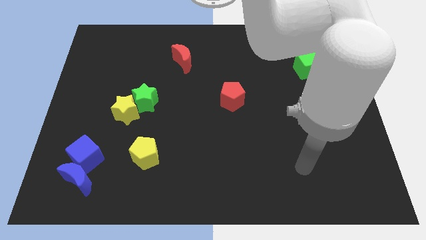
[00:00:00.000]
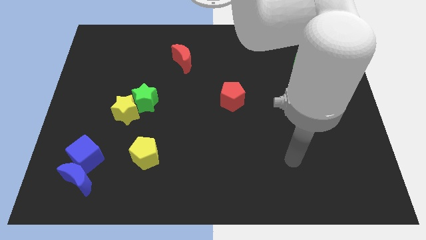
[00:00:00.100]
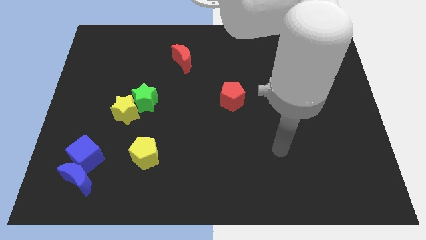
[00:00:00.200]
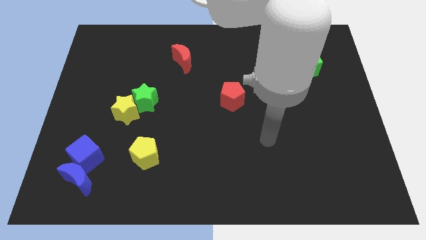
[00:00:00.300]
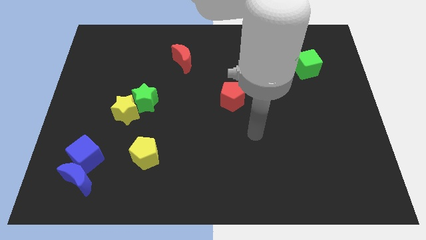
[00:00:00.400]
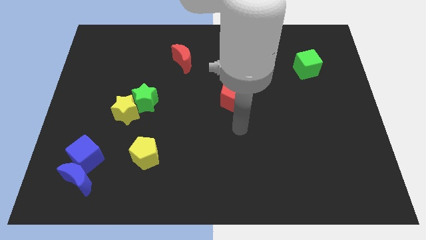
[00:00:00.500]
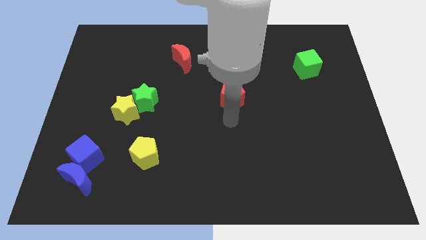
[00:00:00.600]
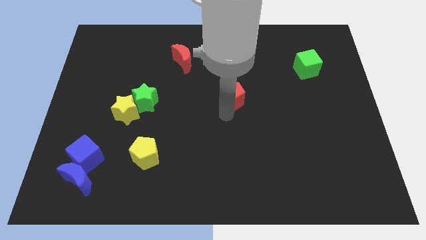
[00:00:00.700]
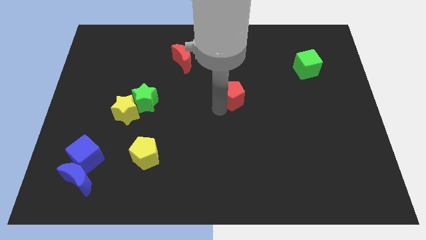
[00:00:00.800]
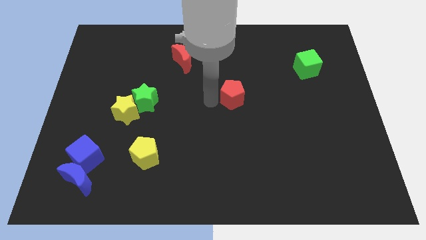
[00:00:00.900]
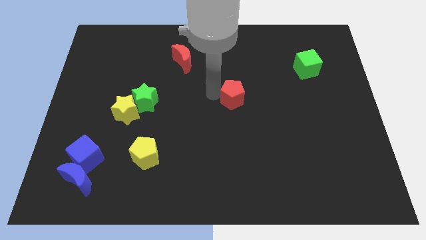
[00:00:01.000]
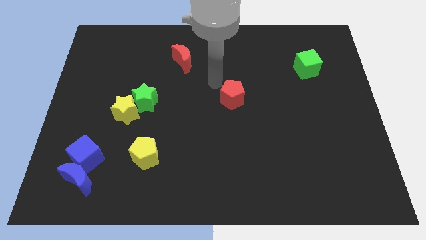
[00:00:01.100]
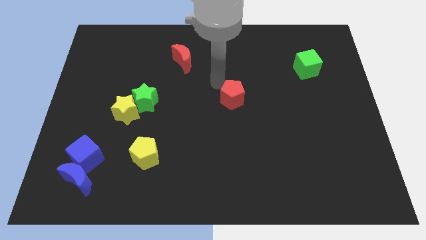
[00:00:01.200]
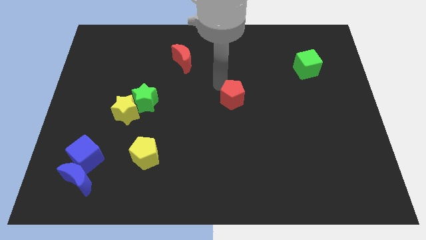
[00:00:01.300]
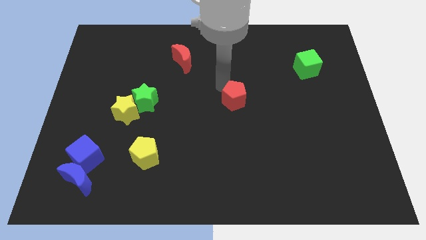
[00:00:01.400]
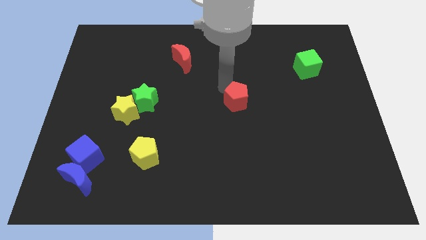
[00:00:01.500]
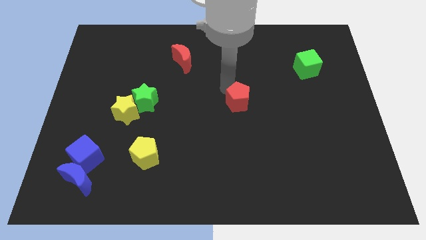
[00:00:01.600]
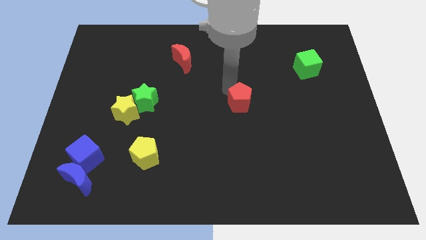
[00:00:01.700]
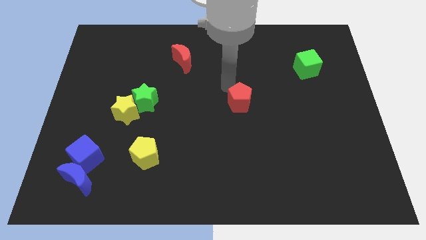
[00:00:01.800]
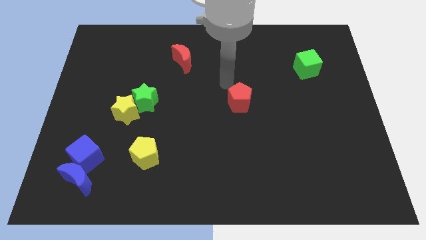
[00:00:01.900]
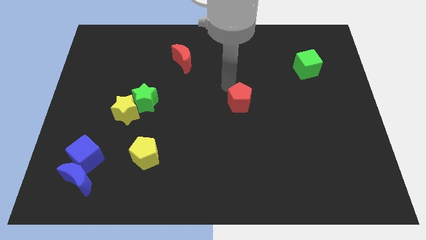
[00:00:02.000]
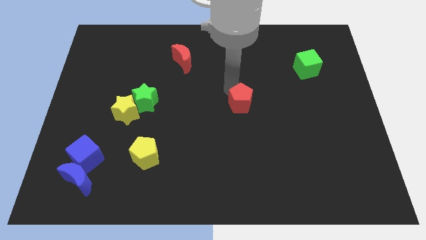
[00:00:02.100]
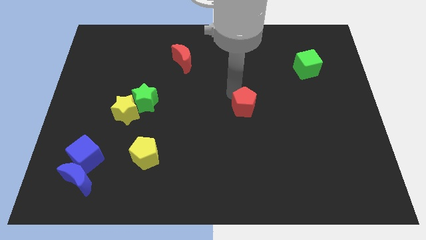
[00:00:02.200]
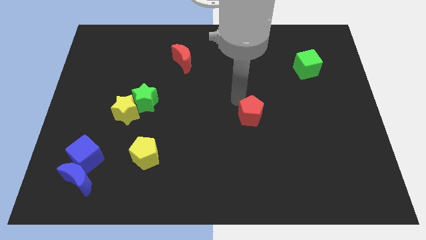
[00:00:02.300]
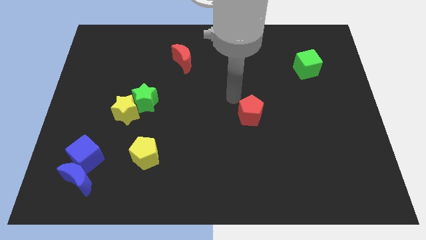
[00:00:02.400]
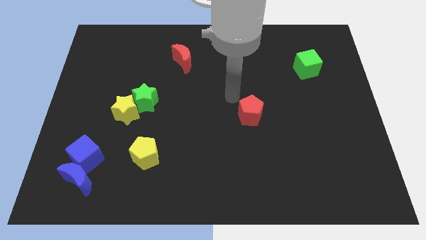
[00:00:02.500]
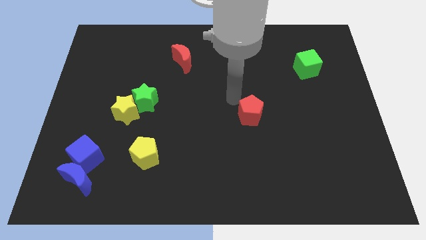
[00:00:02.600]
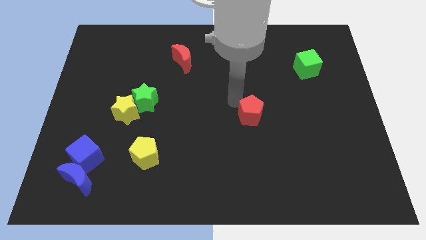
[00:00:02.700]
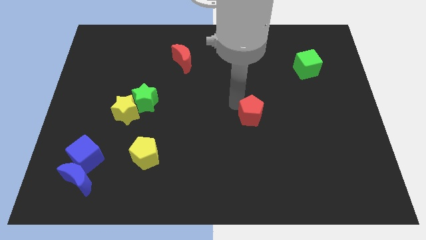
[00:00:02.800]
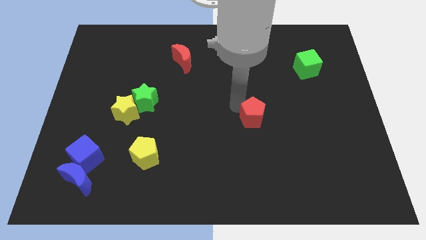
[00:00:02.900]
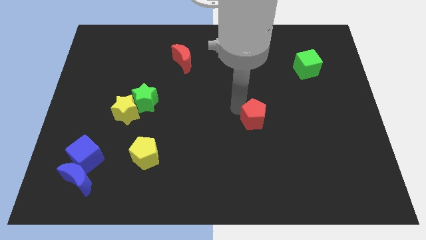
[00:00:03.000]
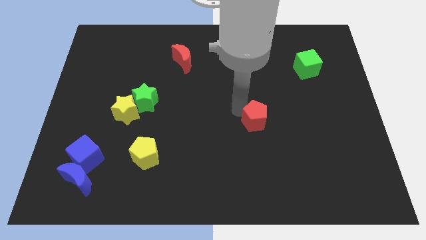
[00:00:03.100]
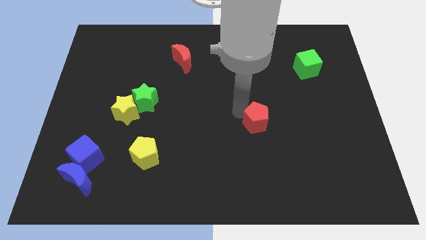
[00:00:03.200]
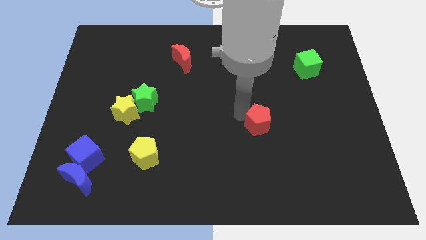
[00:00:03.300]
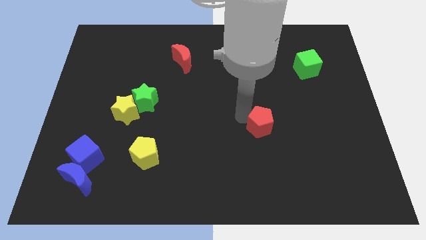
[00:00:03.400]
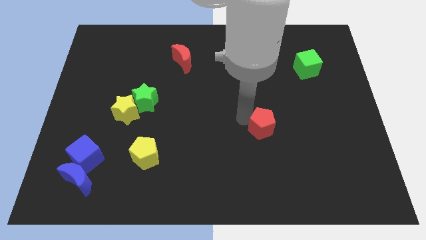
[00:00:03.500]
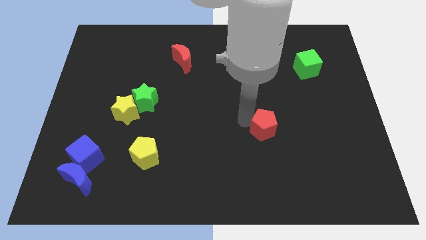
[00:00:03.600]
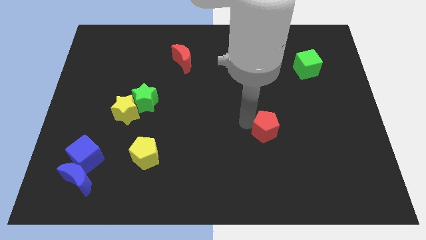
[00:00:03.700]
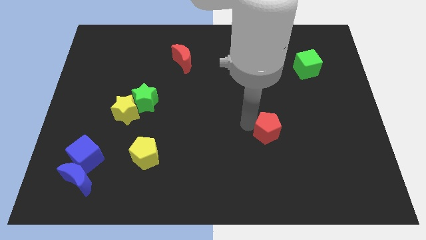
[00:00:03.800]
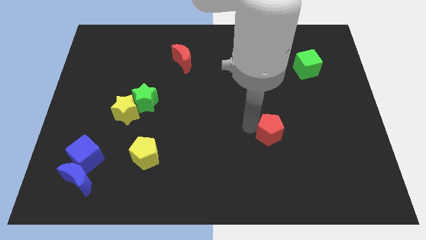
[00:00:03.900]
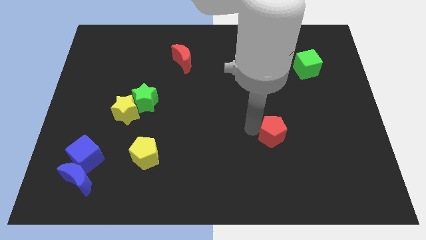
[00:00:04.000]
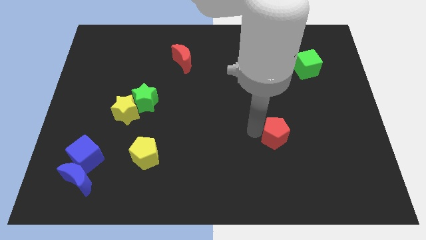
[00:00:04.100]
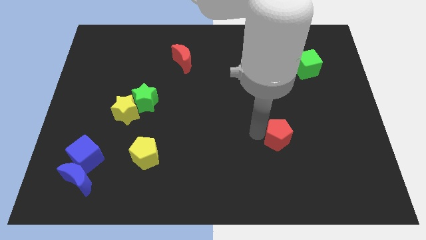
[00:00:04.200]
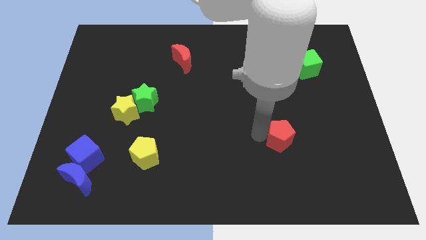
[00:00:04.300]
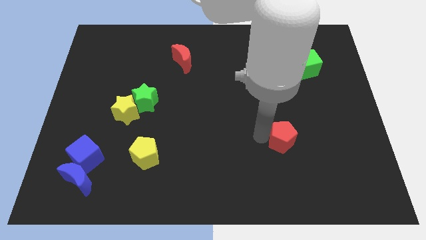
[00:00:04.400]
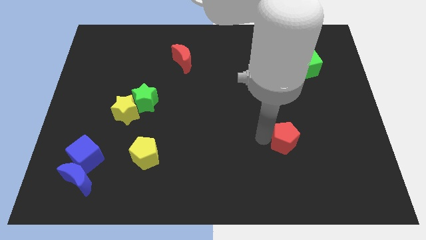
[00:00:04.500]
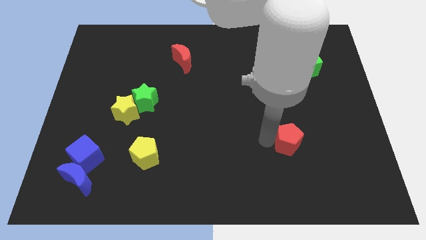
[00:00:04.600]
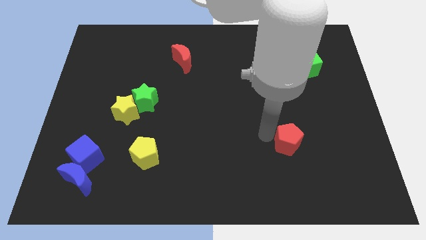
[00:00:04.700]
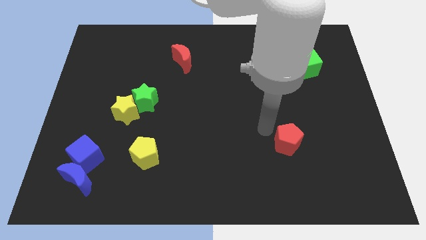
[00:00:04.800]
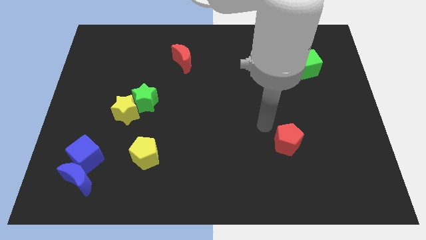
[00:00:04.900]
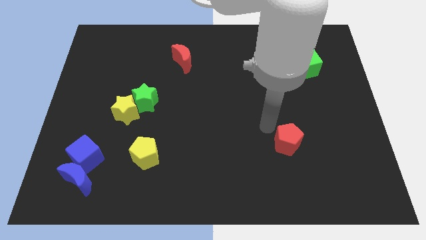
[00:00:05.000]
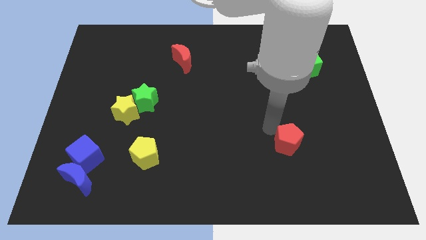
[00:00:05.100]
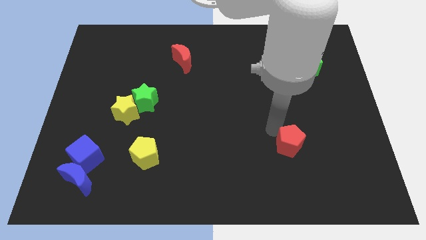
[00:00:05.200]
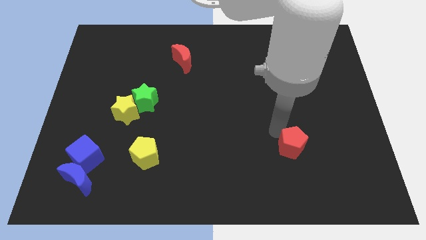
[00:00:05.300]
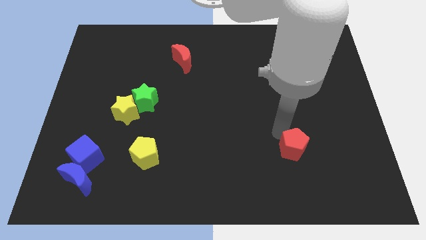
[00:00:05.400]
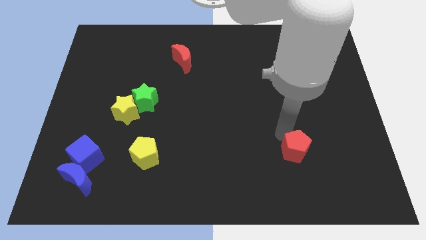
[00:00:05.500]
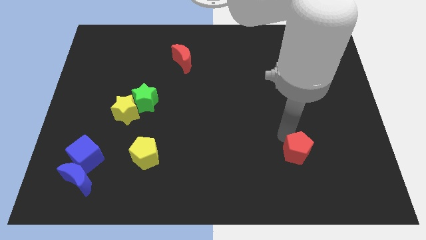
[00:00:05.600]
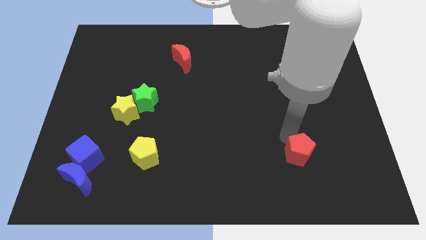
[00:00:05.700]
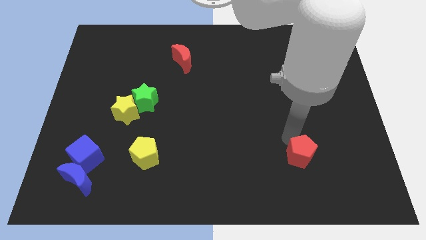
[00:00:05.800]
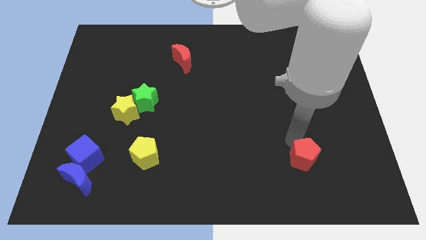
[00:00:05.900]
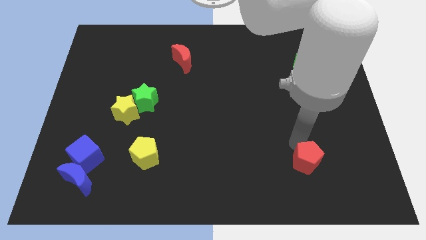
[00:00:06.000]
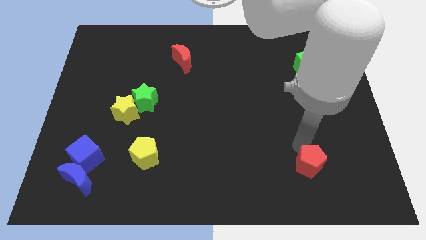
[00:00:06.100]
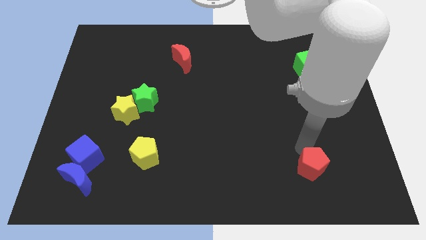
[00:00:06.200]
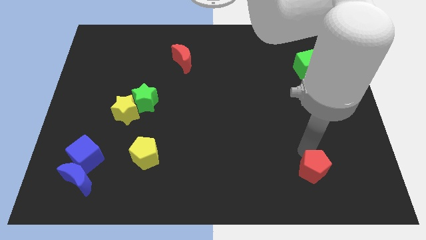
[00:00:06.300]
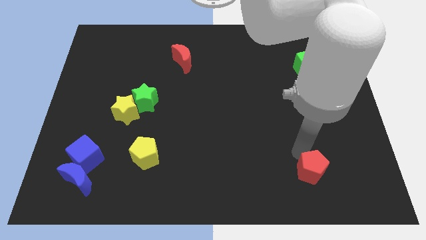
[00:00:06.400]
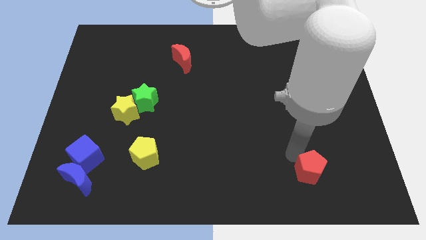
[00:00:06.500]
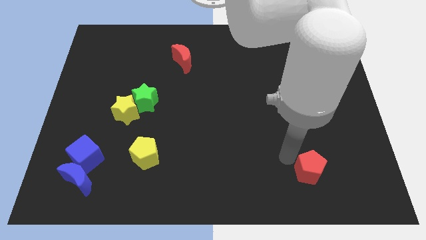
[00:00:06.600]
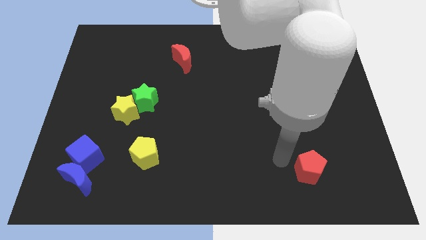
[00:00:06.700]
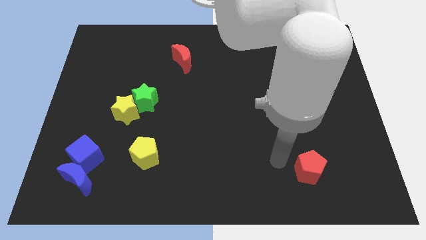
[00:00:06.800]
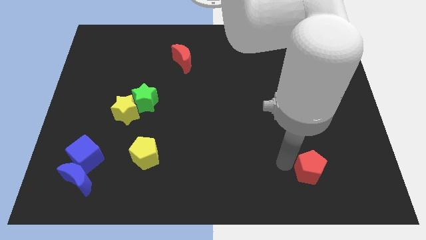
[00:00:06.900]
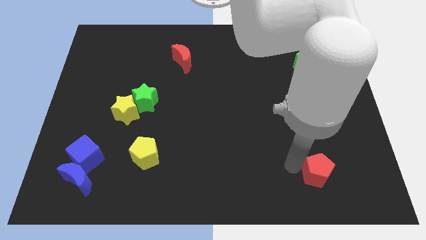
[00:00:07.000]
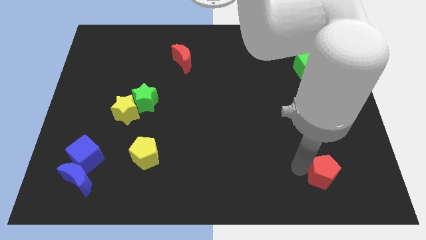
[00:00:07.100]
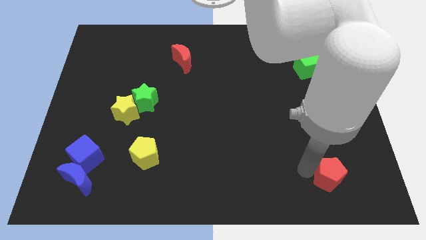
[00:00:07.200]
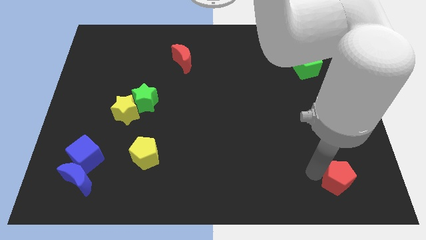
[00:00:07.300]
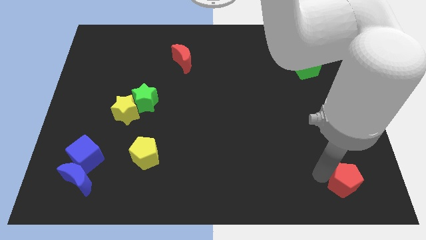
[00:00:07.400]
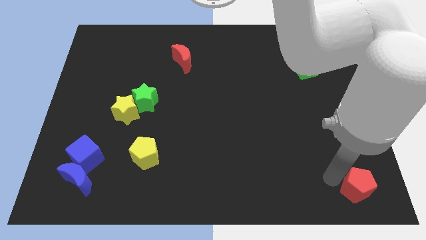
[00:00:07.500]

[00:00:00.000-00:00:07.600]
move the red pentagon to the lower right corner
